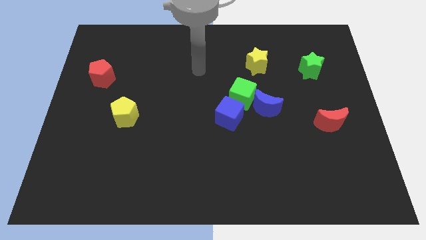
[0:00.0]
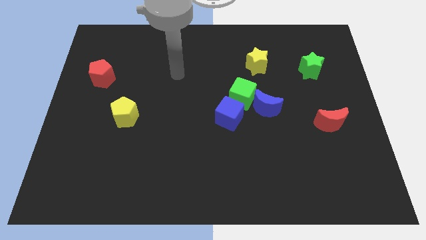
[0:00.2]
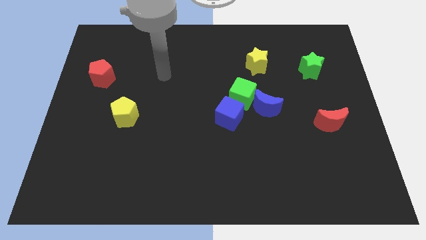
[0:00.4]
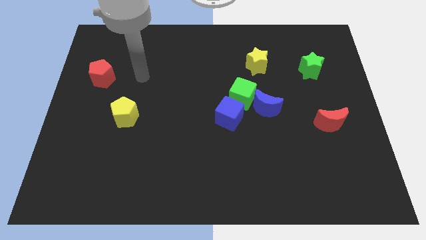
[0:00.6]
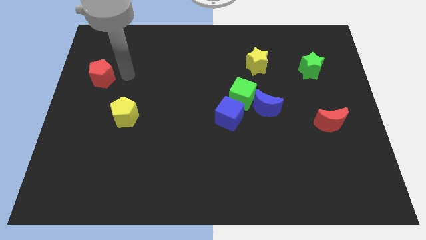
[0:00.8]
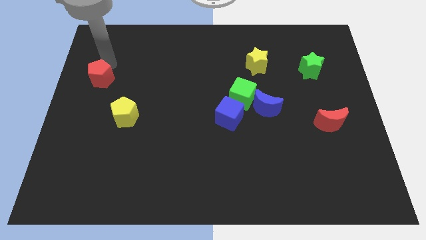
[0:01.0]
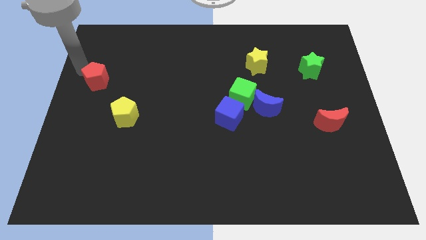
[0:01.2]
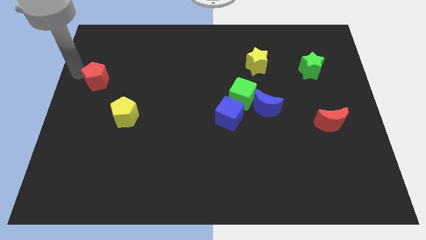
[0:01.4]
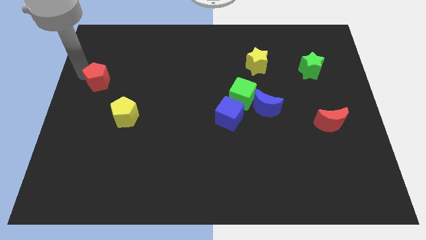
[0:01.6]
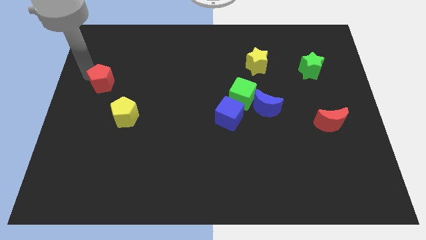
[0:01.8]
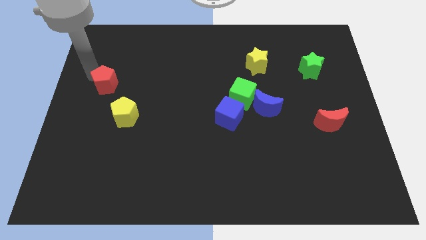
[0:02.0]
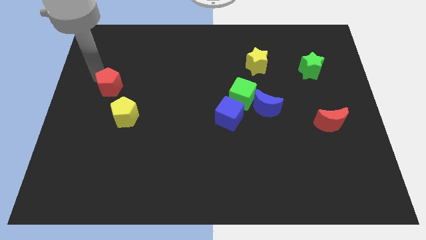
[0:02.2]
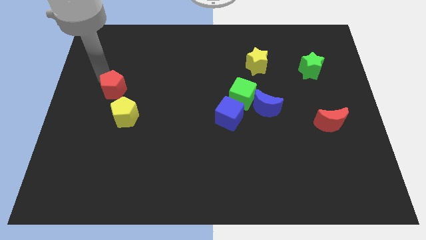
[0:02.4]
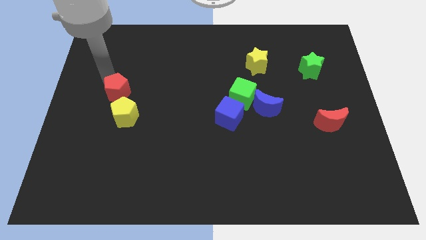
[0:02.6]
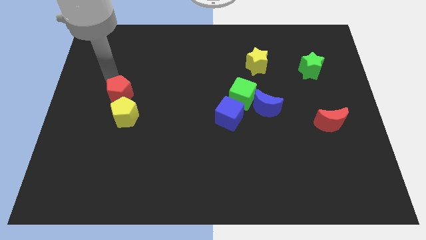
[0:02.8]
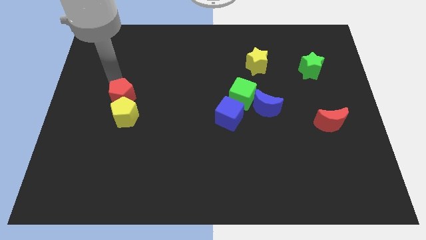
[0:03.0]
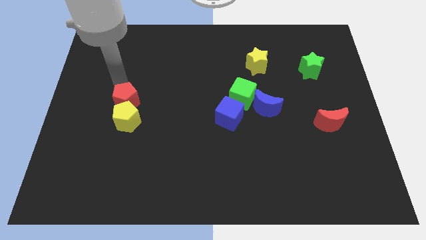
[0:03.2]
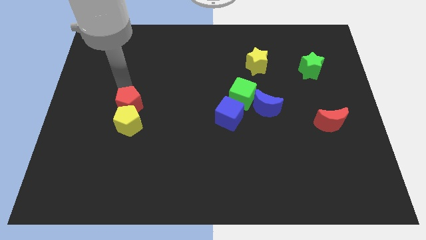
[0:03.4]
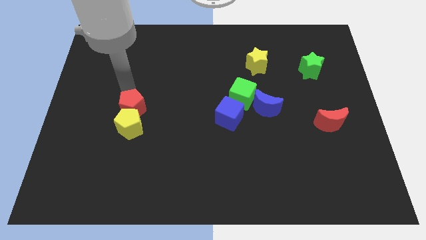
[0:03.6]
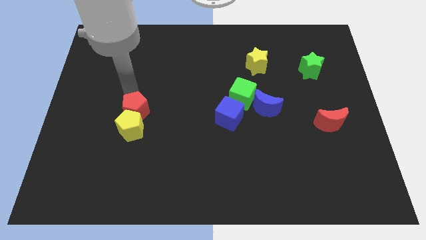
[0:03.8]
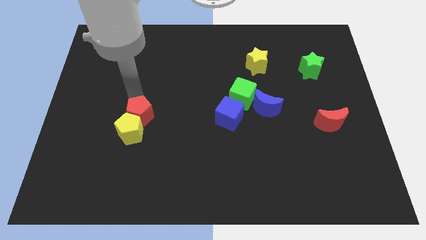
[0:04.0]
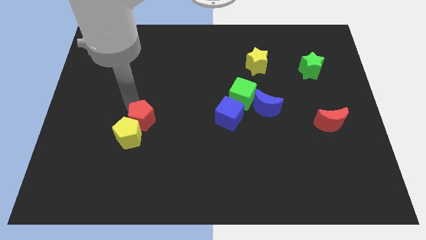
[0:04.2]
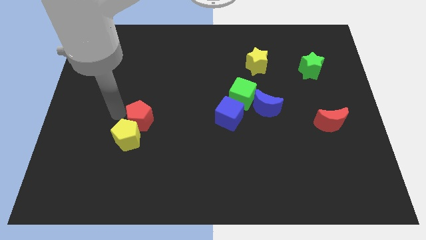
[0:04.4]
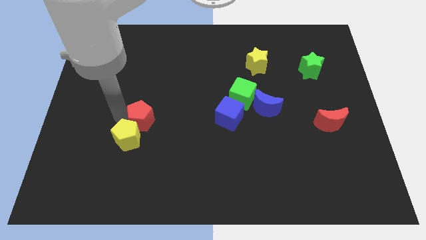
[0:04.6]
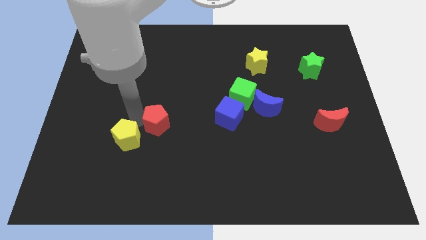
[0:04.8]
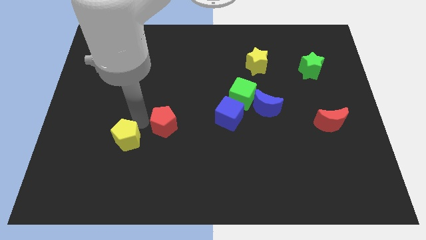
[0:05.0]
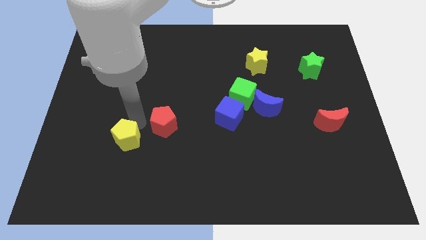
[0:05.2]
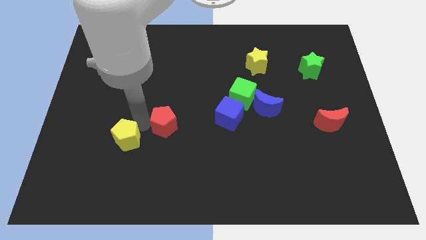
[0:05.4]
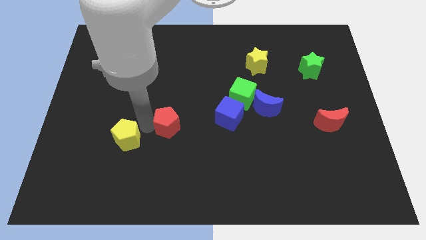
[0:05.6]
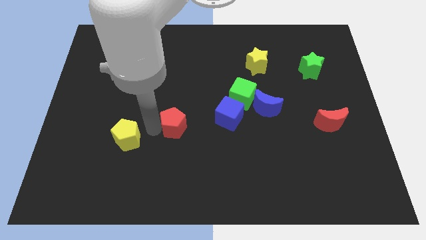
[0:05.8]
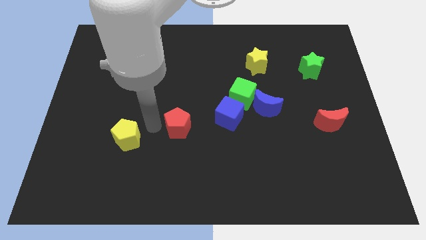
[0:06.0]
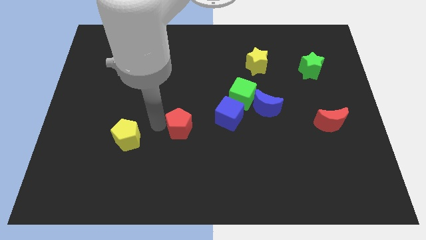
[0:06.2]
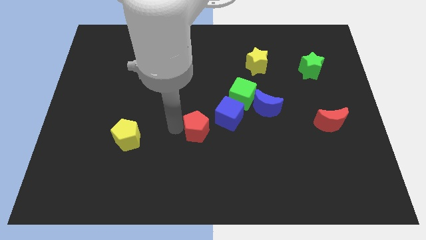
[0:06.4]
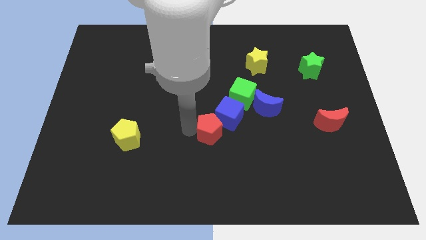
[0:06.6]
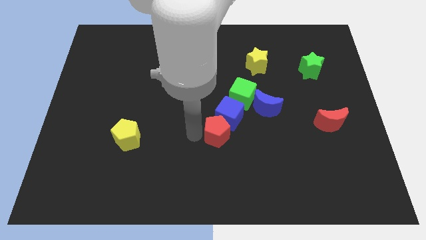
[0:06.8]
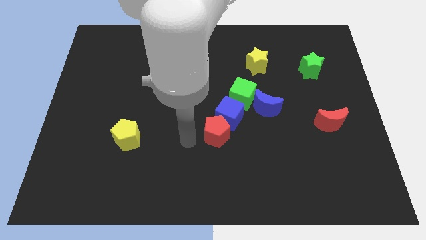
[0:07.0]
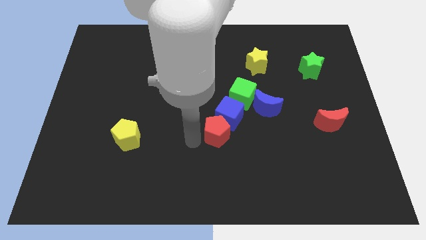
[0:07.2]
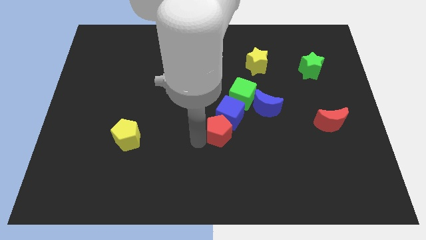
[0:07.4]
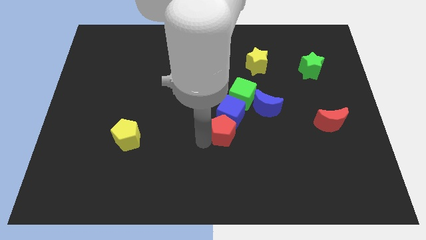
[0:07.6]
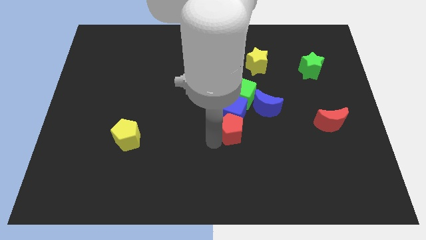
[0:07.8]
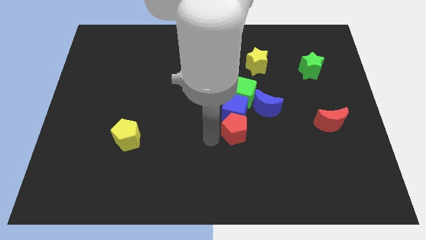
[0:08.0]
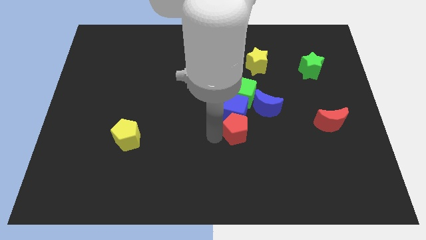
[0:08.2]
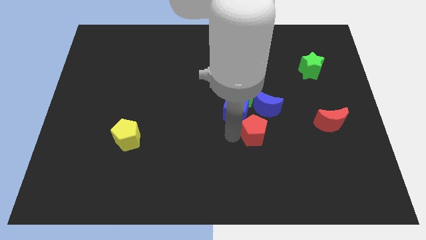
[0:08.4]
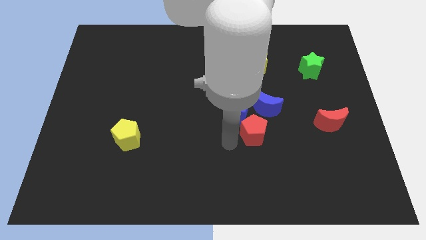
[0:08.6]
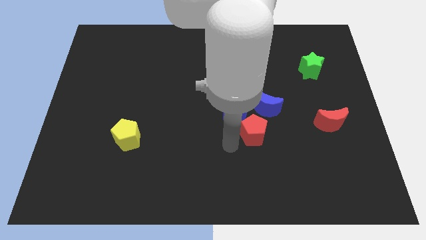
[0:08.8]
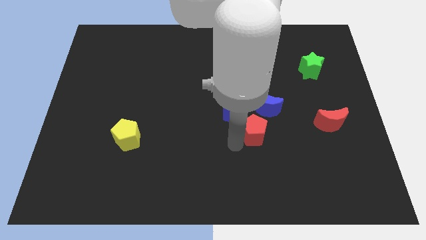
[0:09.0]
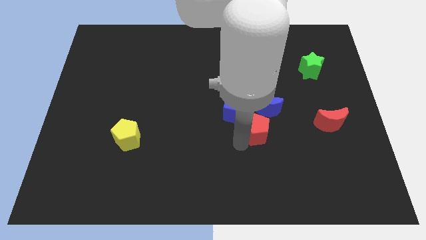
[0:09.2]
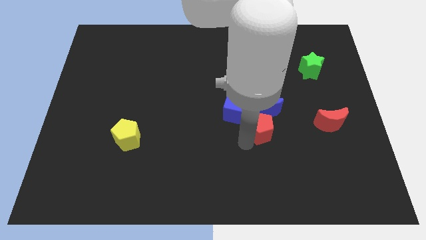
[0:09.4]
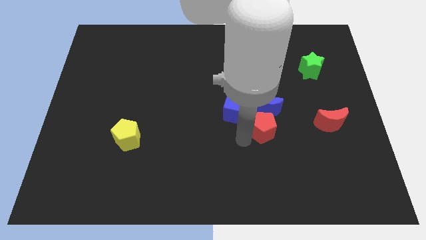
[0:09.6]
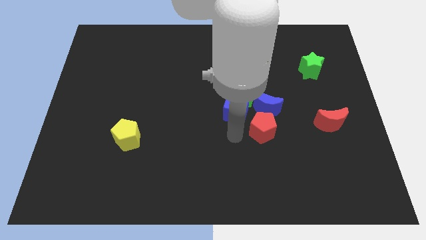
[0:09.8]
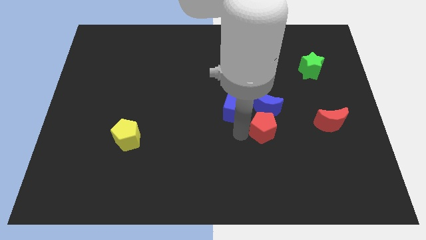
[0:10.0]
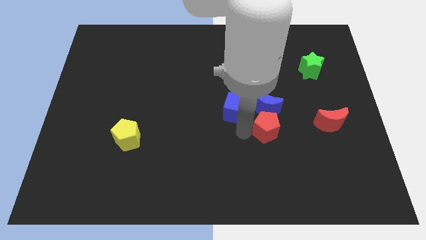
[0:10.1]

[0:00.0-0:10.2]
slide the red pentagon to the bottom right side of the blue moon

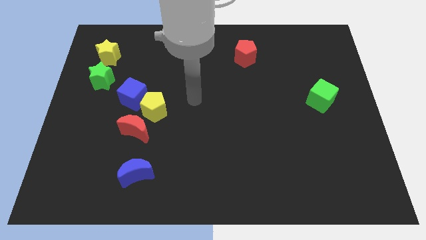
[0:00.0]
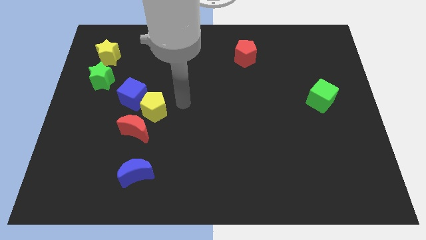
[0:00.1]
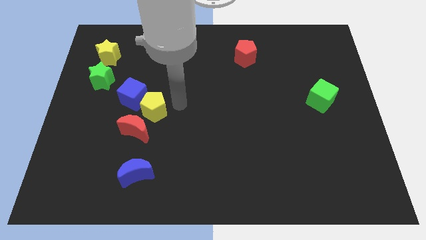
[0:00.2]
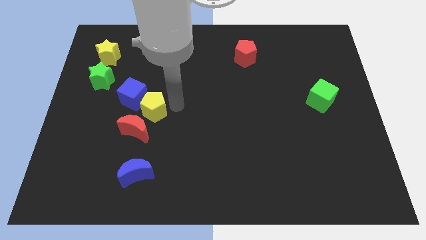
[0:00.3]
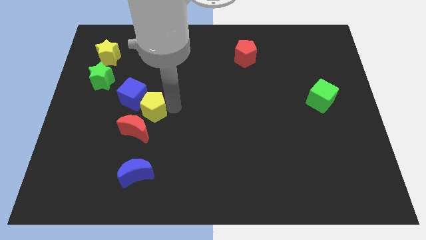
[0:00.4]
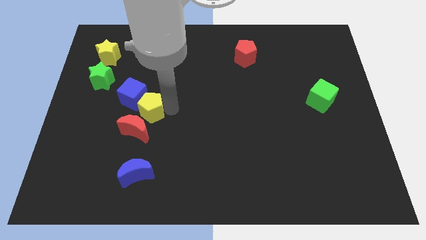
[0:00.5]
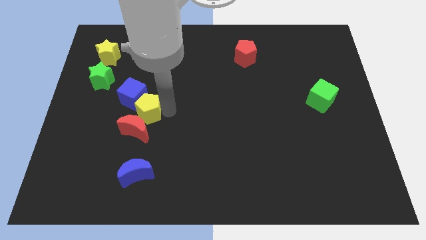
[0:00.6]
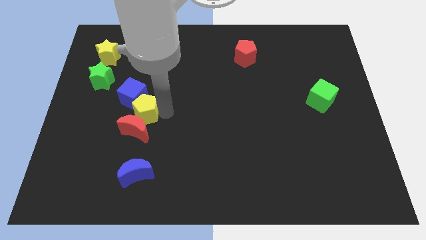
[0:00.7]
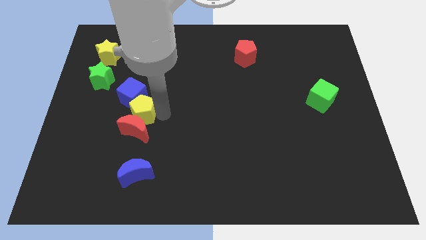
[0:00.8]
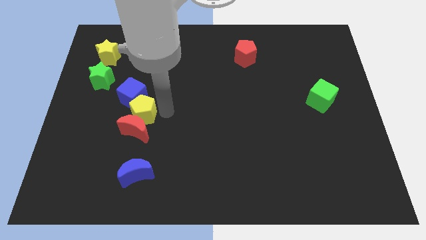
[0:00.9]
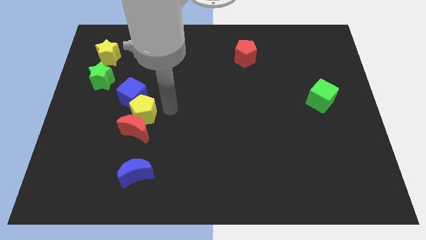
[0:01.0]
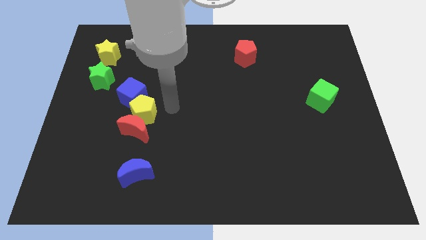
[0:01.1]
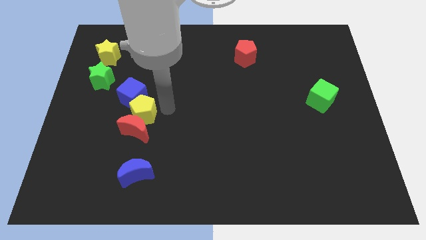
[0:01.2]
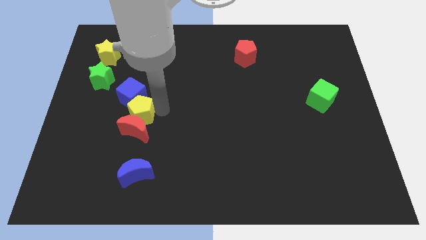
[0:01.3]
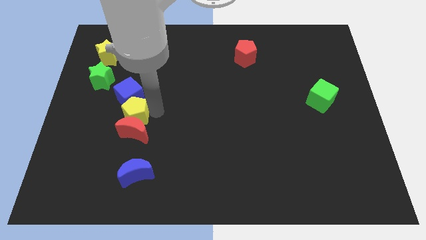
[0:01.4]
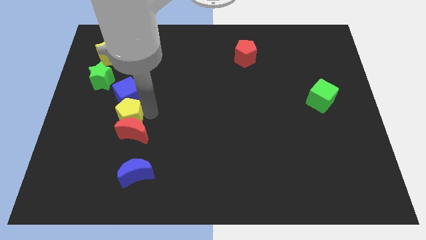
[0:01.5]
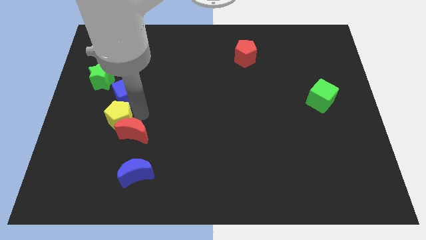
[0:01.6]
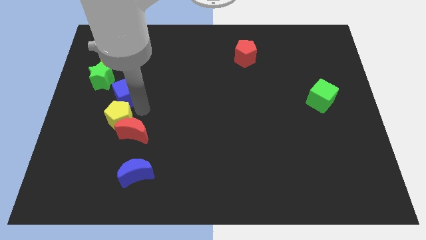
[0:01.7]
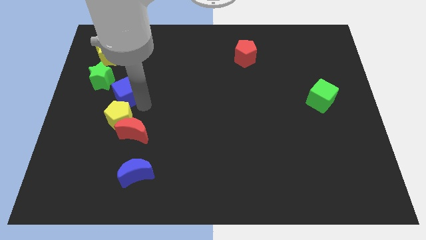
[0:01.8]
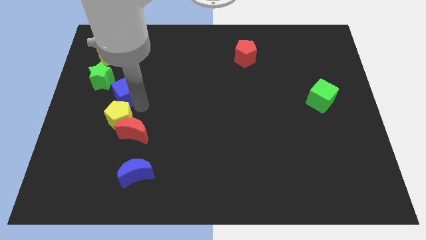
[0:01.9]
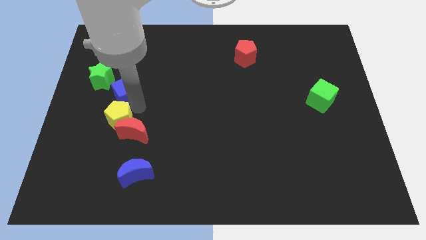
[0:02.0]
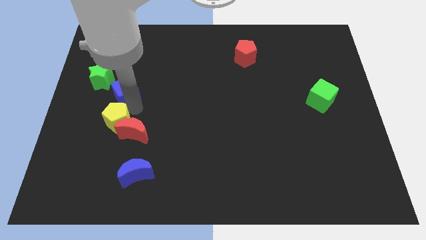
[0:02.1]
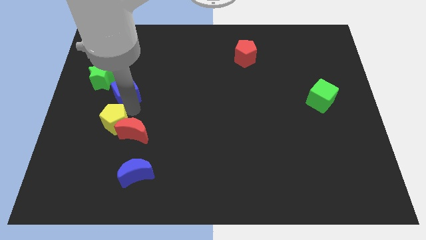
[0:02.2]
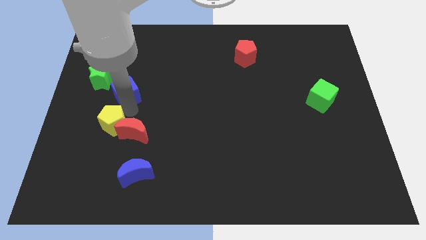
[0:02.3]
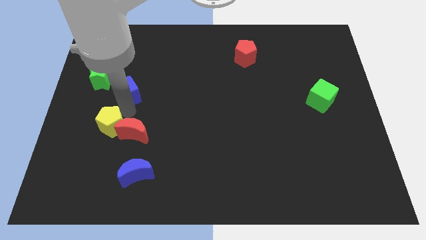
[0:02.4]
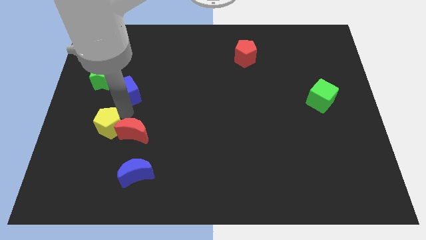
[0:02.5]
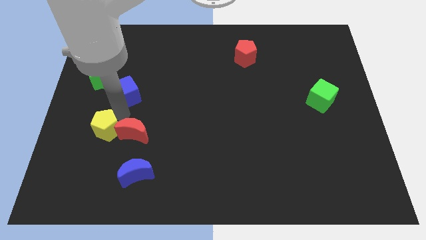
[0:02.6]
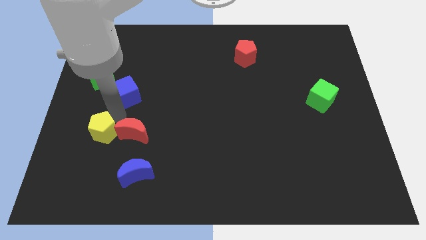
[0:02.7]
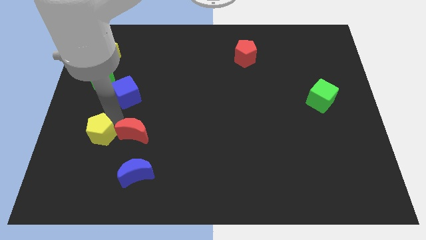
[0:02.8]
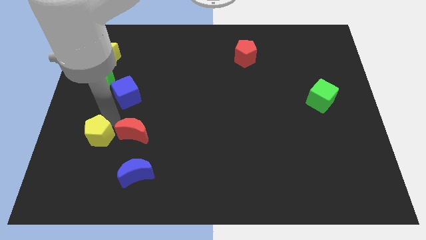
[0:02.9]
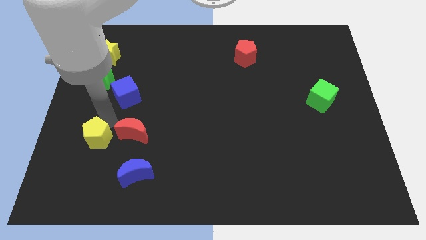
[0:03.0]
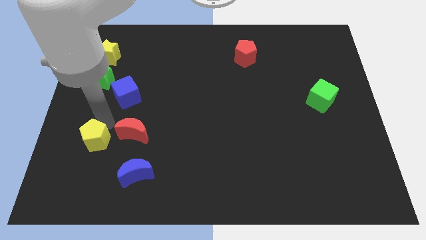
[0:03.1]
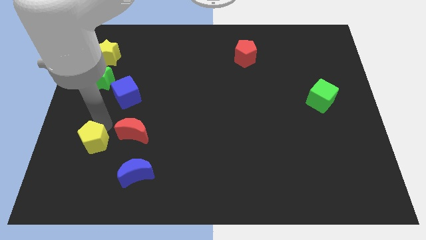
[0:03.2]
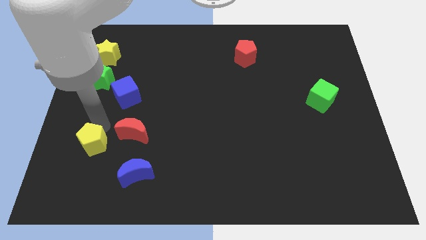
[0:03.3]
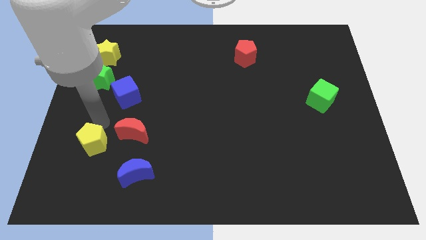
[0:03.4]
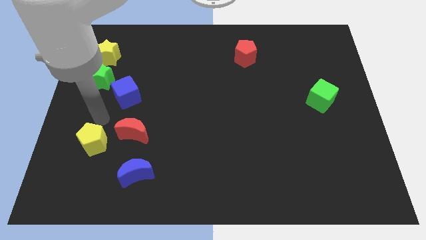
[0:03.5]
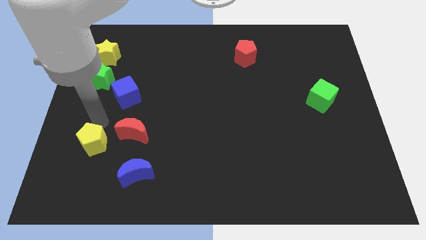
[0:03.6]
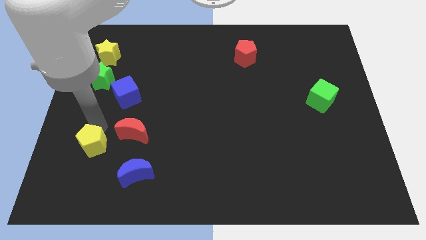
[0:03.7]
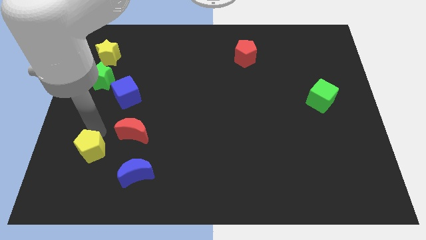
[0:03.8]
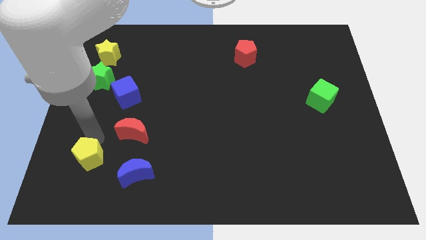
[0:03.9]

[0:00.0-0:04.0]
slide the yellow pentagon to the left of the blue moon
